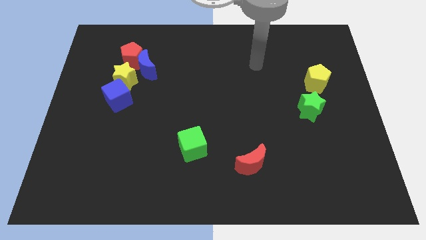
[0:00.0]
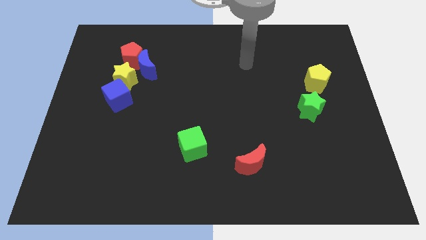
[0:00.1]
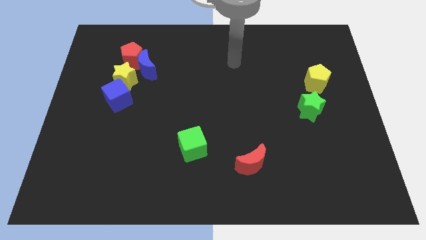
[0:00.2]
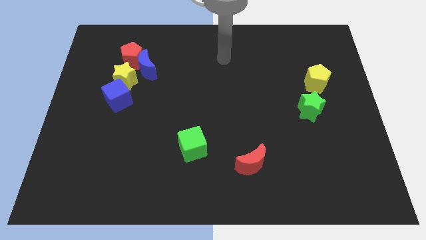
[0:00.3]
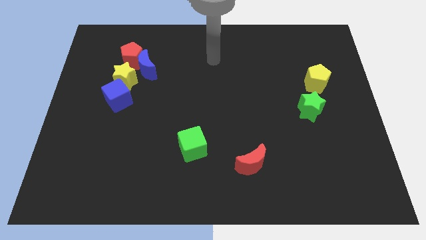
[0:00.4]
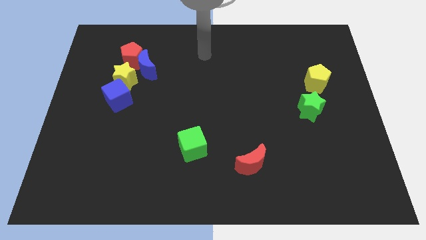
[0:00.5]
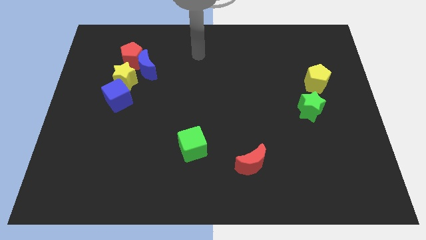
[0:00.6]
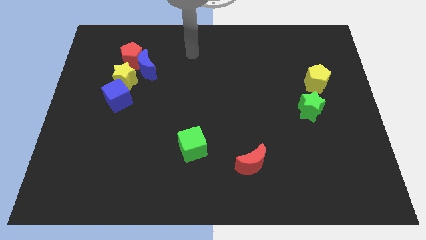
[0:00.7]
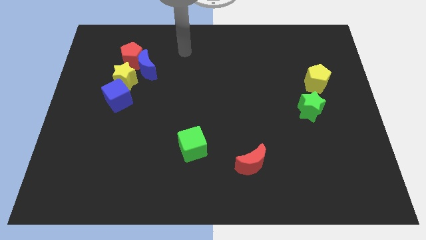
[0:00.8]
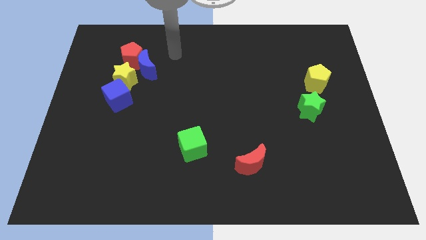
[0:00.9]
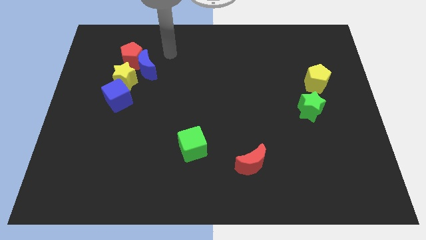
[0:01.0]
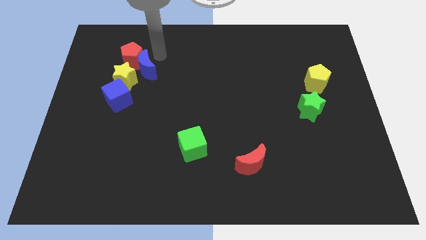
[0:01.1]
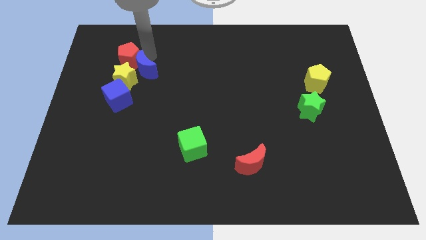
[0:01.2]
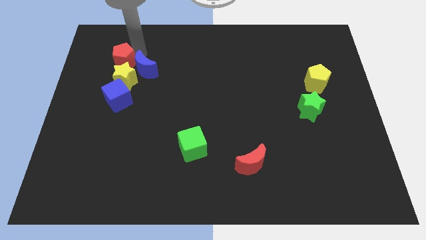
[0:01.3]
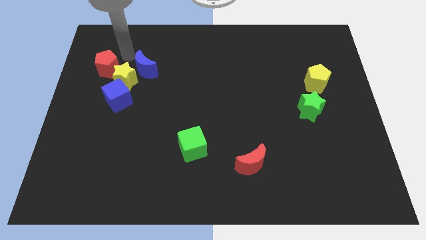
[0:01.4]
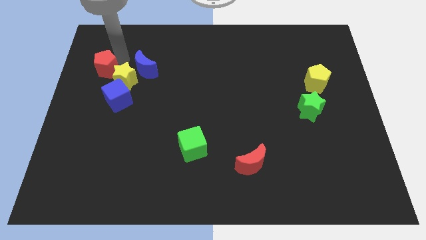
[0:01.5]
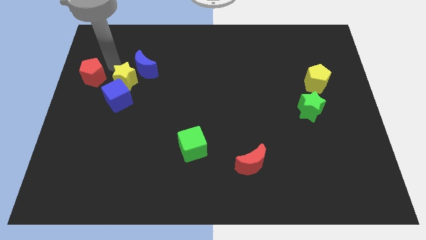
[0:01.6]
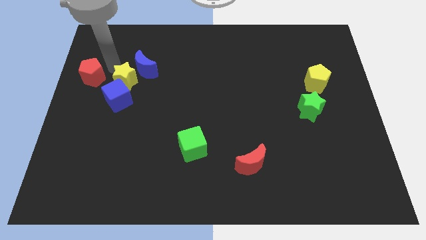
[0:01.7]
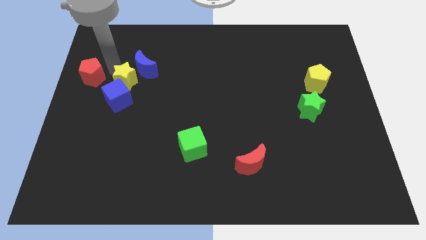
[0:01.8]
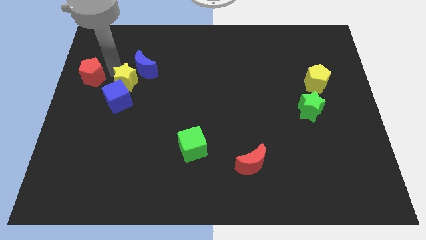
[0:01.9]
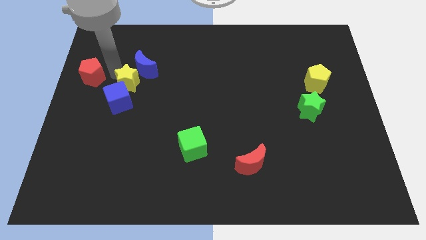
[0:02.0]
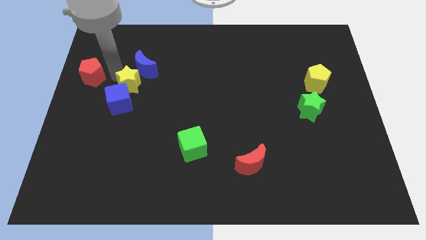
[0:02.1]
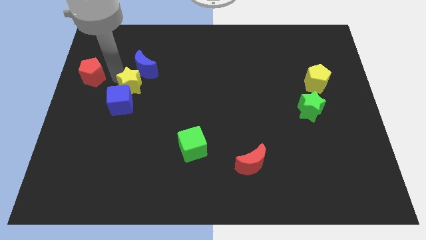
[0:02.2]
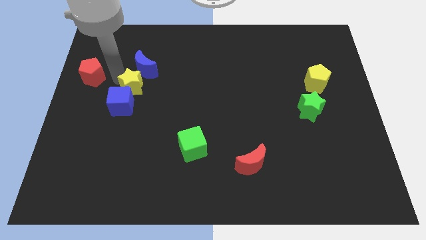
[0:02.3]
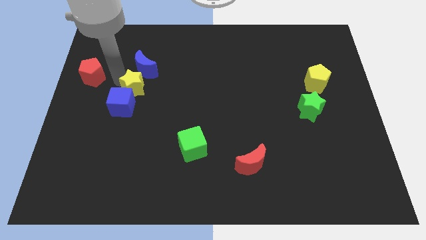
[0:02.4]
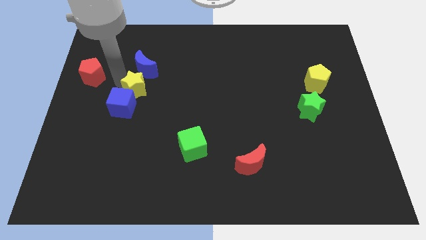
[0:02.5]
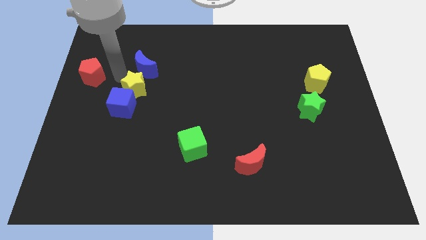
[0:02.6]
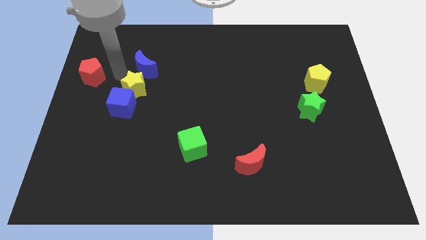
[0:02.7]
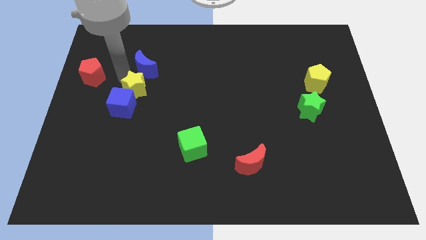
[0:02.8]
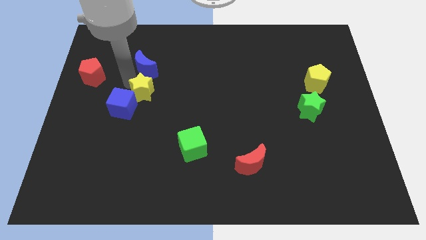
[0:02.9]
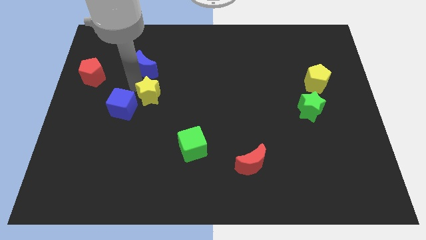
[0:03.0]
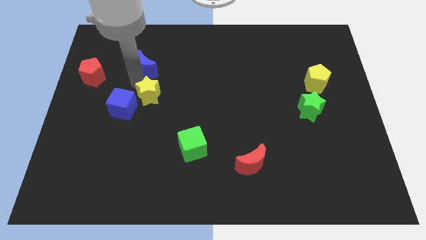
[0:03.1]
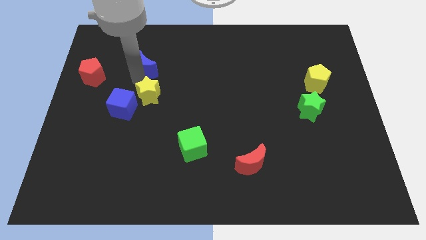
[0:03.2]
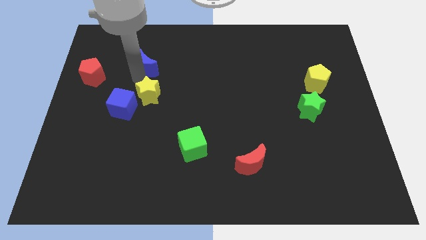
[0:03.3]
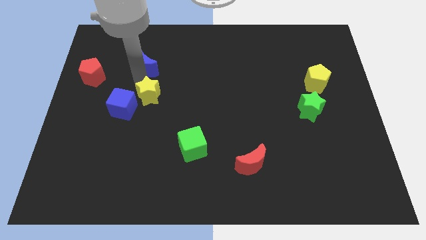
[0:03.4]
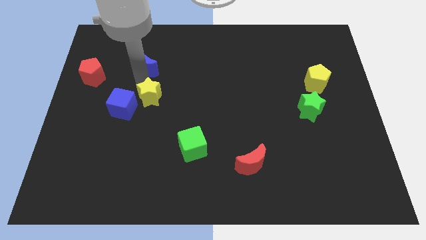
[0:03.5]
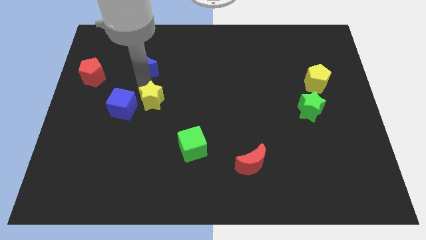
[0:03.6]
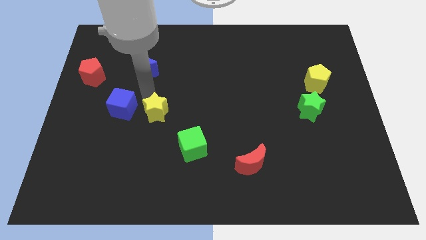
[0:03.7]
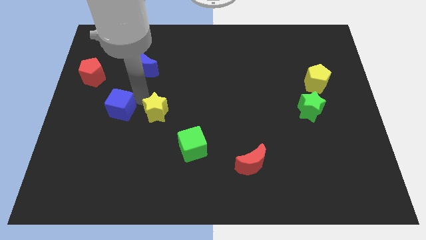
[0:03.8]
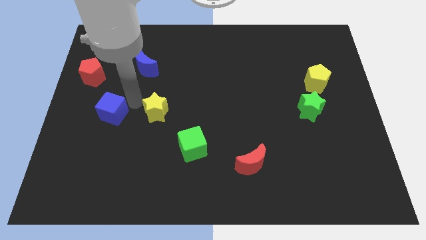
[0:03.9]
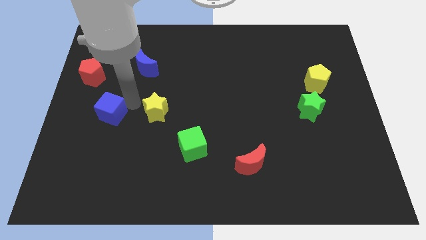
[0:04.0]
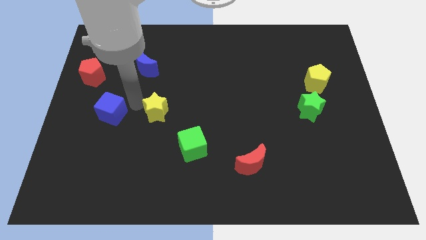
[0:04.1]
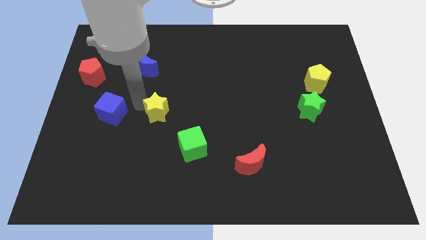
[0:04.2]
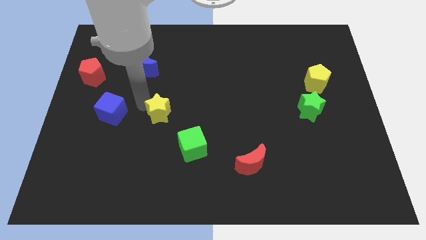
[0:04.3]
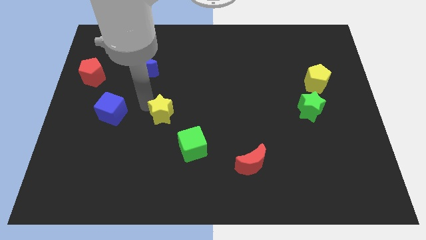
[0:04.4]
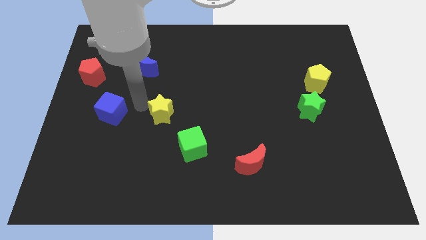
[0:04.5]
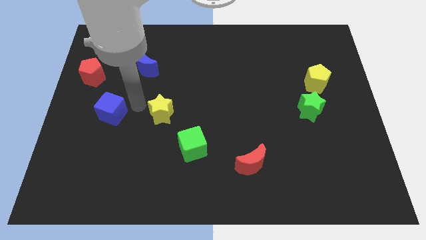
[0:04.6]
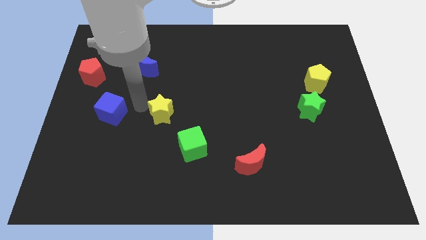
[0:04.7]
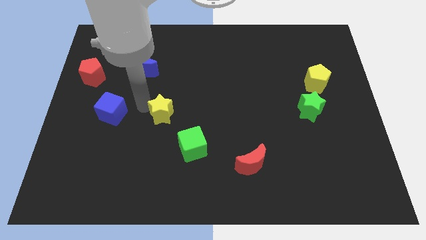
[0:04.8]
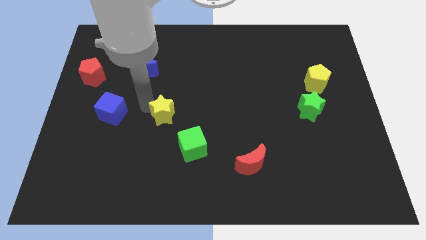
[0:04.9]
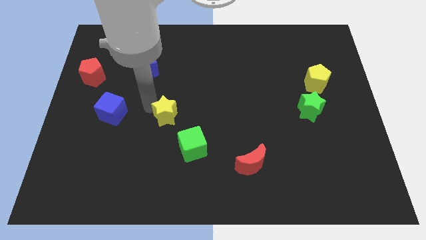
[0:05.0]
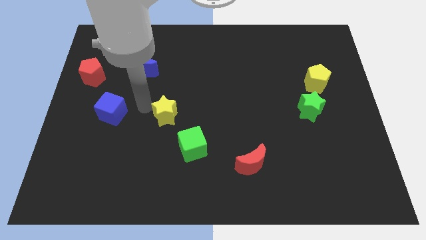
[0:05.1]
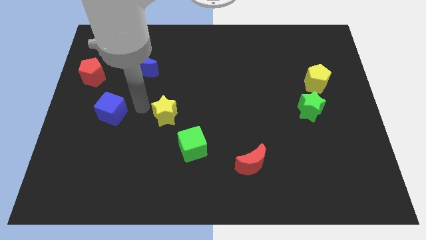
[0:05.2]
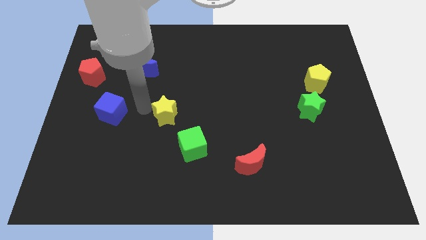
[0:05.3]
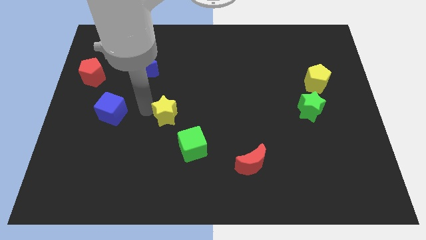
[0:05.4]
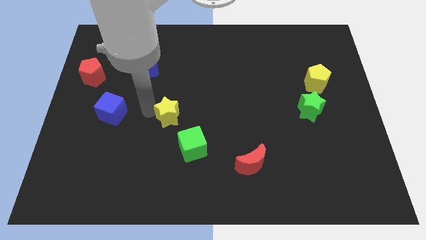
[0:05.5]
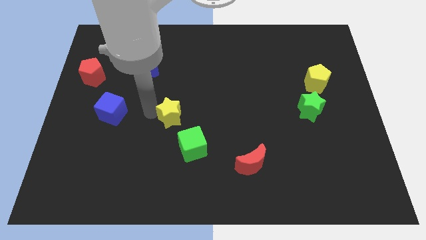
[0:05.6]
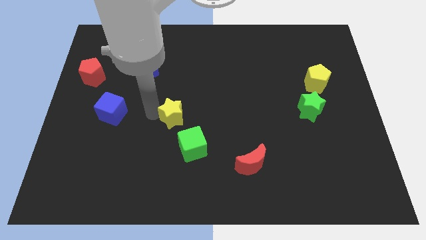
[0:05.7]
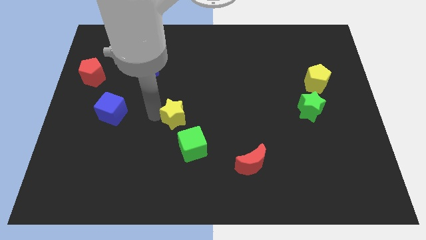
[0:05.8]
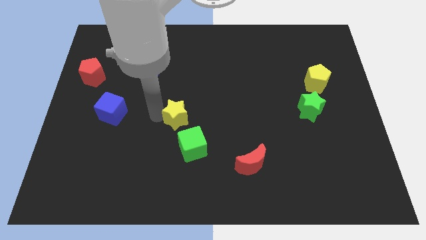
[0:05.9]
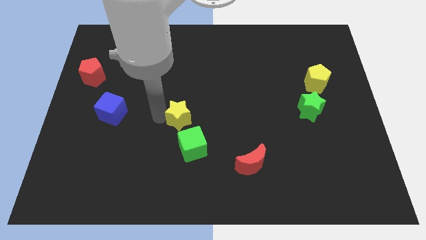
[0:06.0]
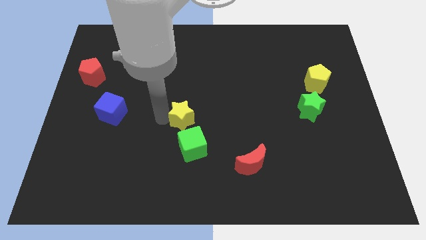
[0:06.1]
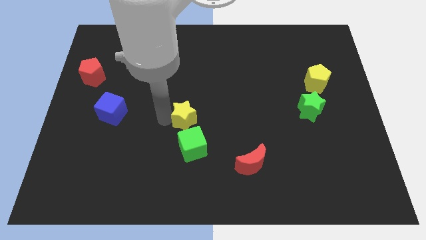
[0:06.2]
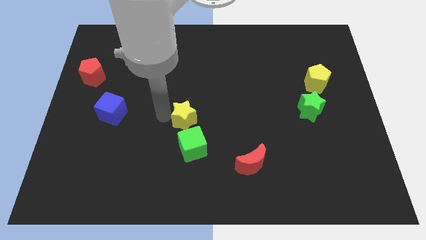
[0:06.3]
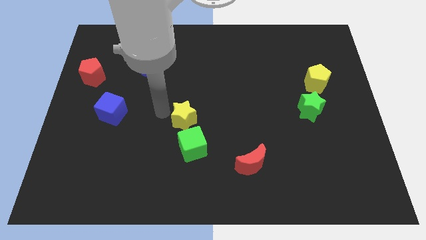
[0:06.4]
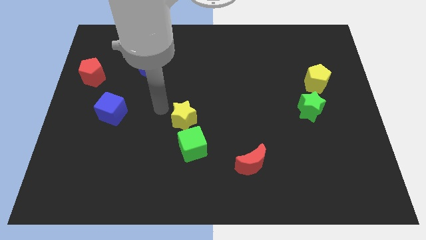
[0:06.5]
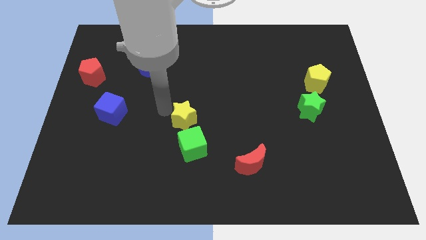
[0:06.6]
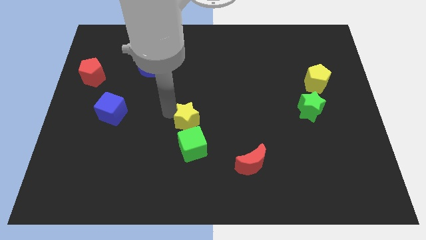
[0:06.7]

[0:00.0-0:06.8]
move the yellow star down and to the right diagonally

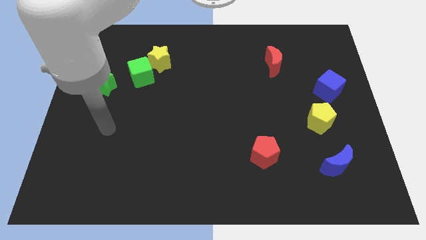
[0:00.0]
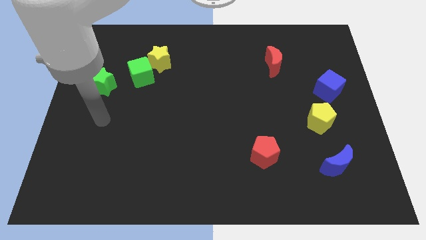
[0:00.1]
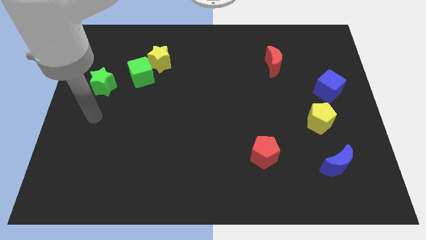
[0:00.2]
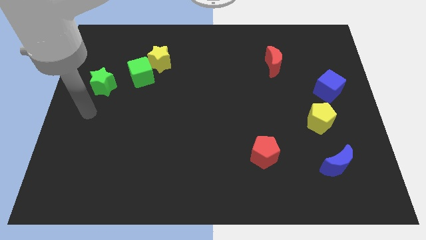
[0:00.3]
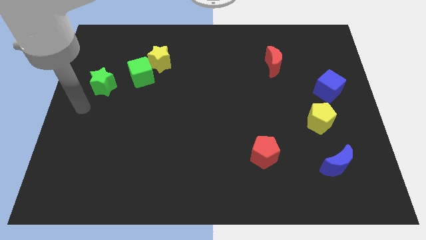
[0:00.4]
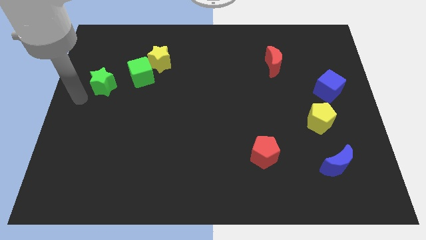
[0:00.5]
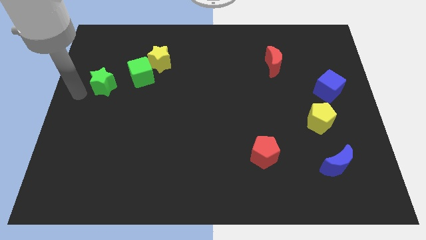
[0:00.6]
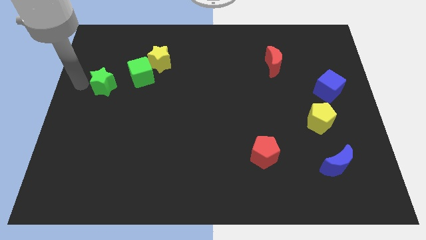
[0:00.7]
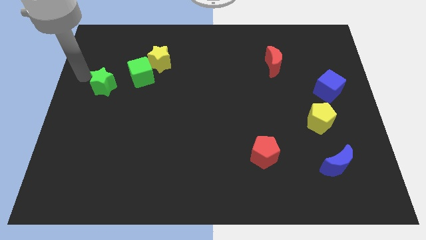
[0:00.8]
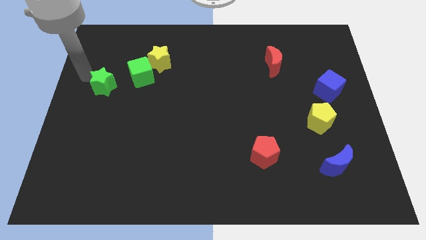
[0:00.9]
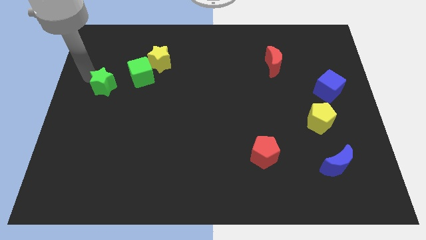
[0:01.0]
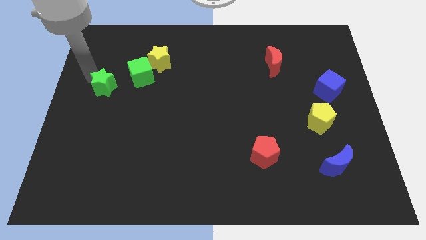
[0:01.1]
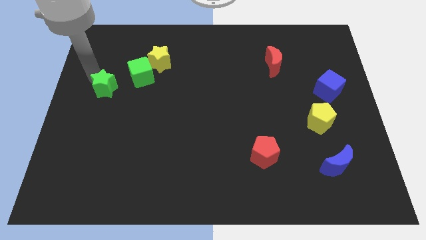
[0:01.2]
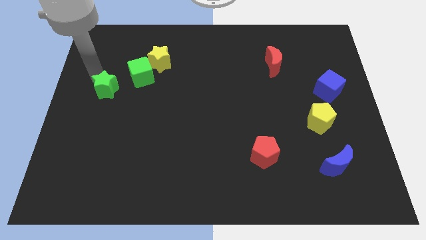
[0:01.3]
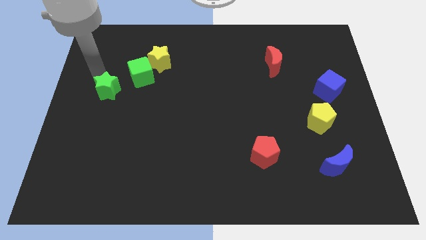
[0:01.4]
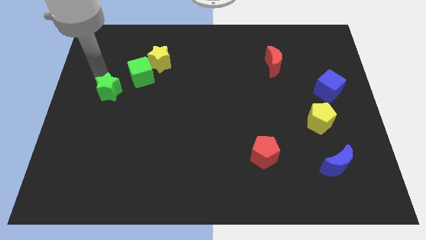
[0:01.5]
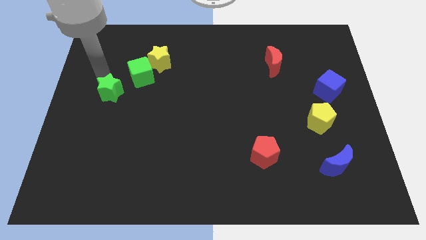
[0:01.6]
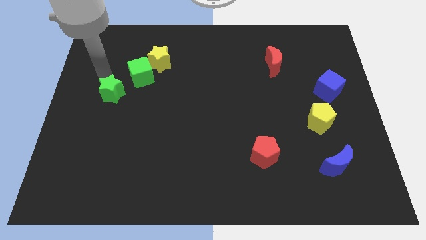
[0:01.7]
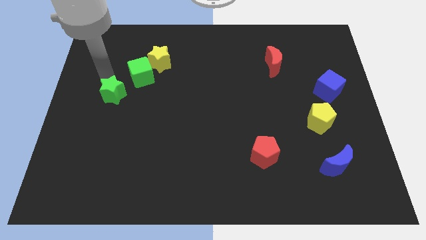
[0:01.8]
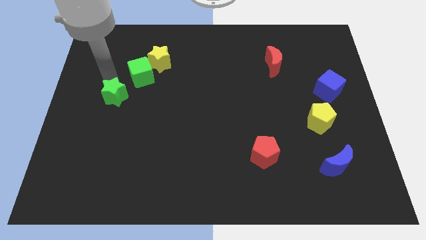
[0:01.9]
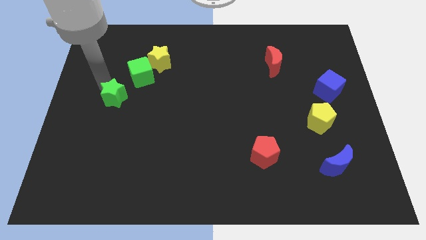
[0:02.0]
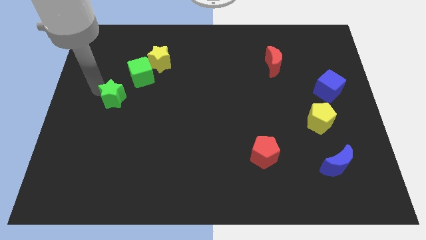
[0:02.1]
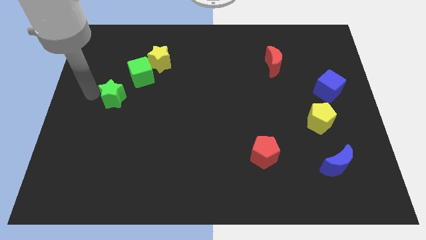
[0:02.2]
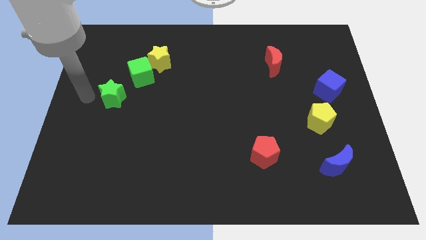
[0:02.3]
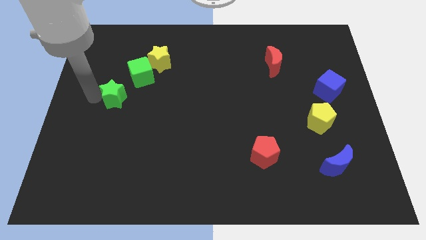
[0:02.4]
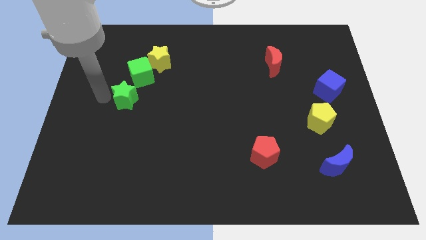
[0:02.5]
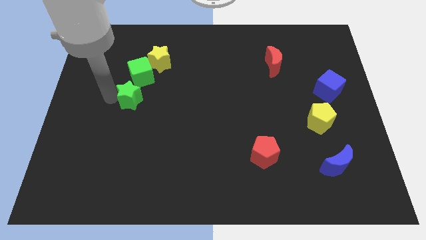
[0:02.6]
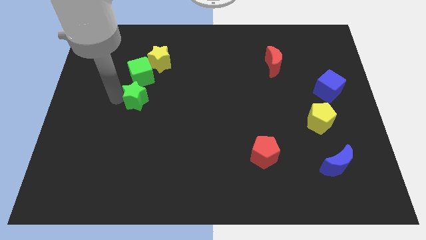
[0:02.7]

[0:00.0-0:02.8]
move the green star right a little
